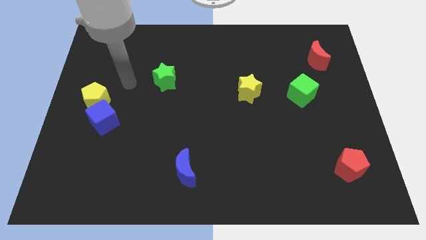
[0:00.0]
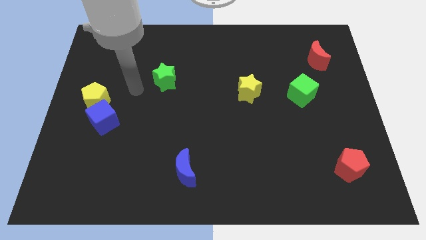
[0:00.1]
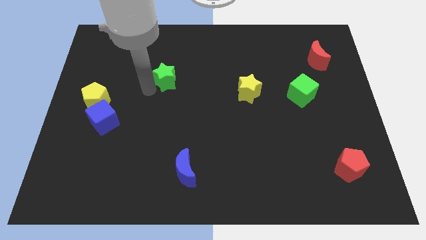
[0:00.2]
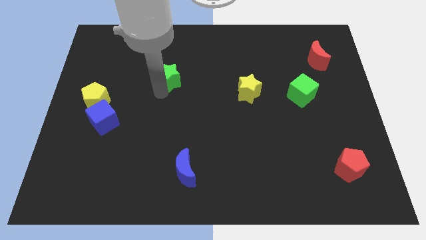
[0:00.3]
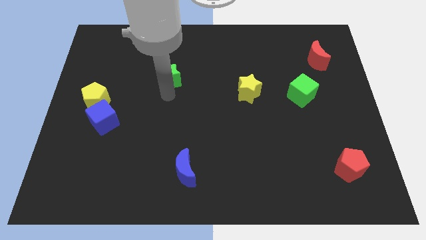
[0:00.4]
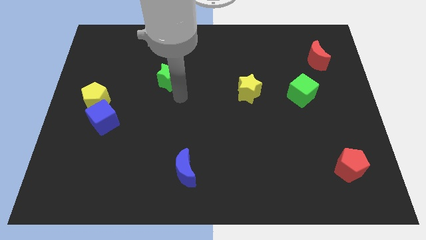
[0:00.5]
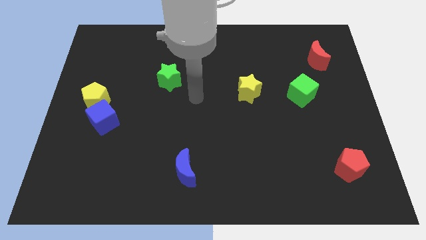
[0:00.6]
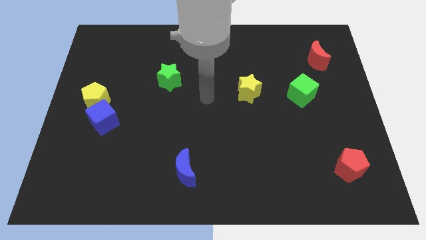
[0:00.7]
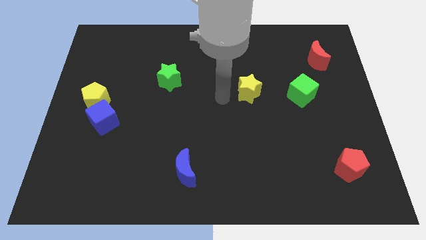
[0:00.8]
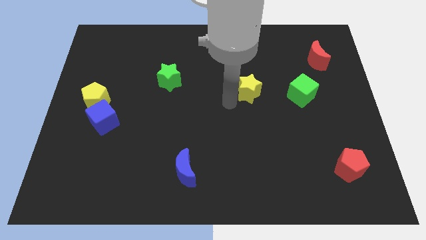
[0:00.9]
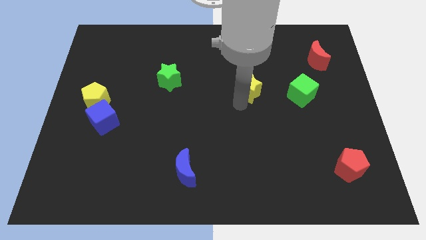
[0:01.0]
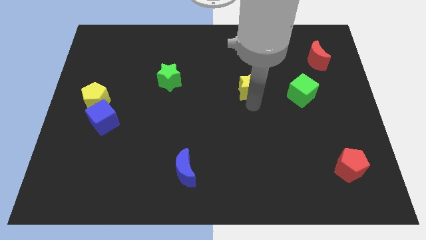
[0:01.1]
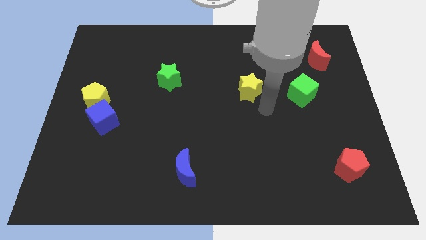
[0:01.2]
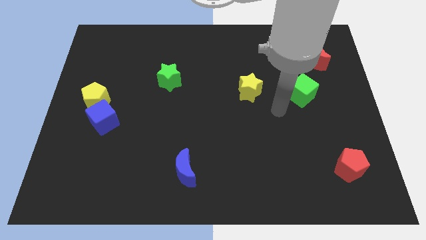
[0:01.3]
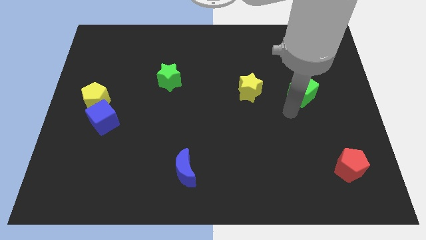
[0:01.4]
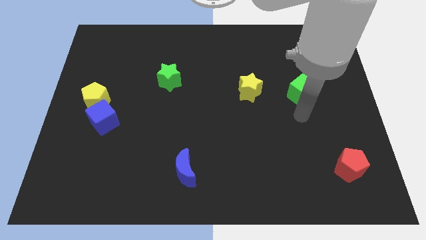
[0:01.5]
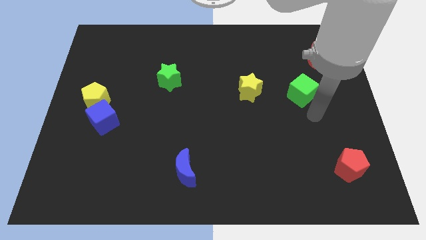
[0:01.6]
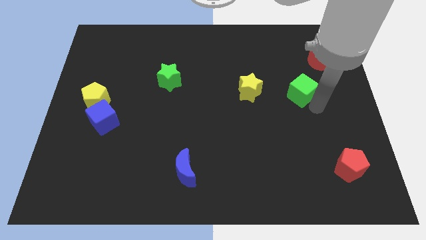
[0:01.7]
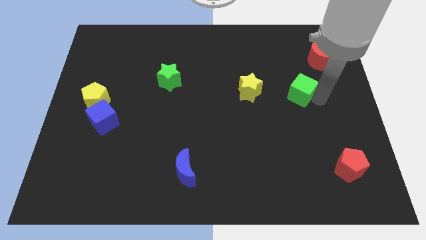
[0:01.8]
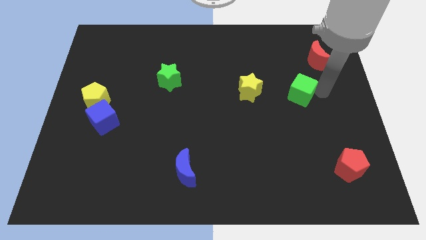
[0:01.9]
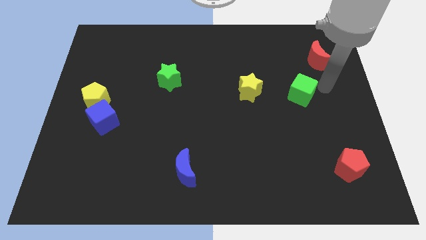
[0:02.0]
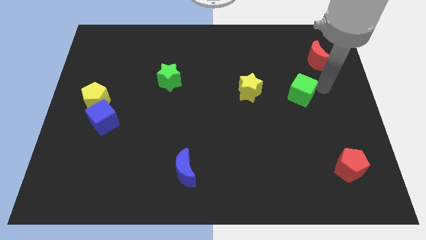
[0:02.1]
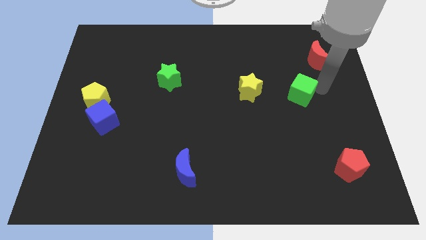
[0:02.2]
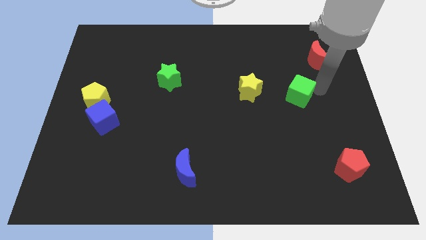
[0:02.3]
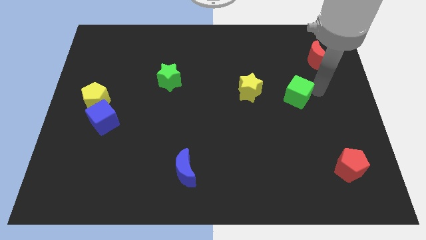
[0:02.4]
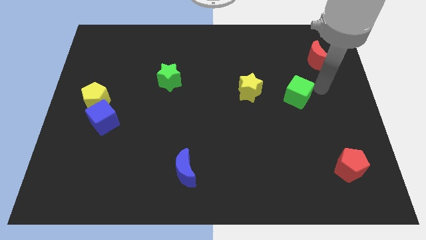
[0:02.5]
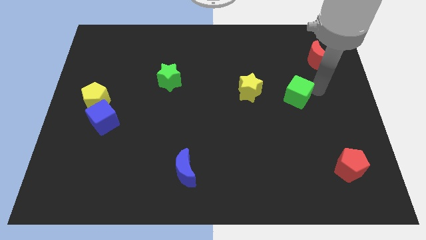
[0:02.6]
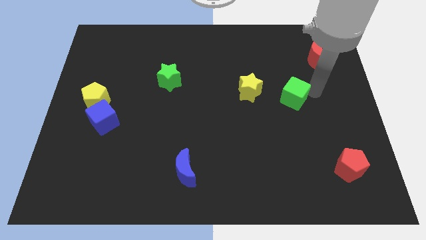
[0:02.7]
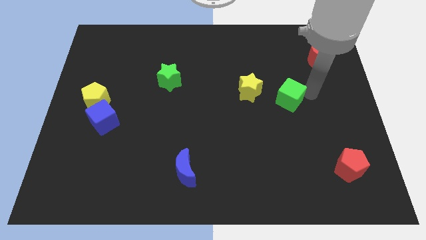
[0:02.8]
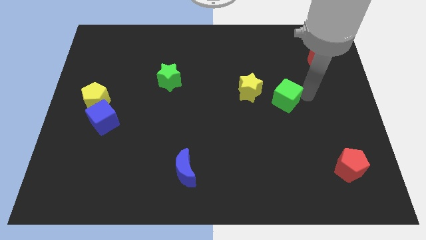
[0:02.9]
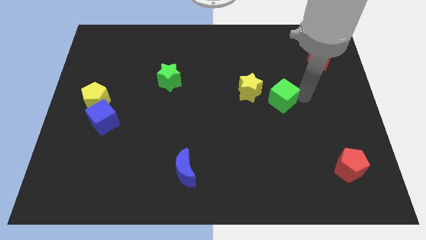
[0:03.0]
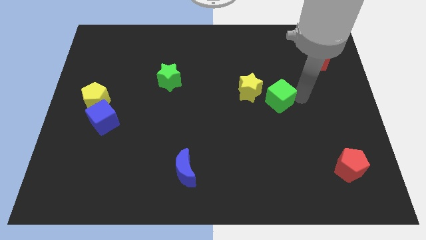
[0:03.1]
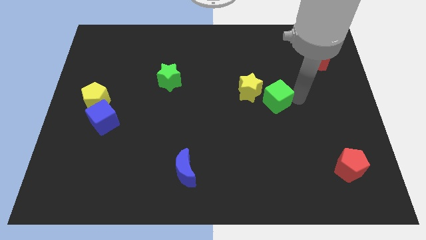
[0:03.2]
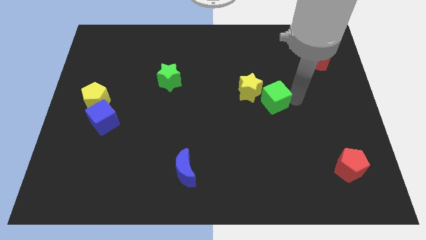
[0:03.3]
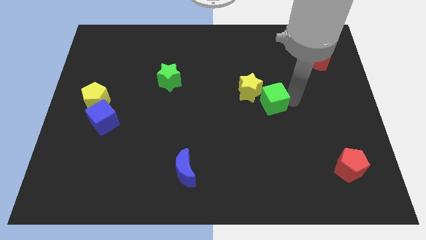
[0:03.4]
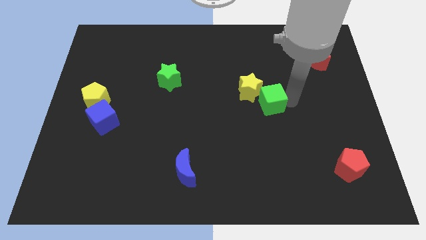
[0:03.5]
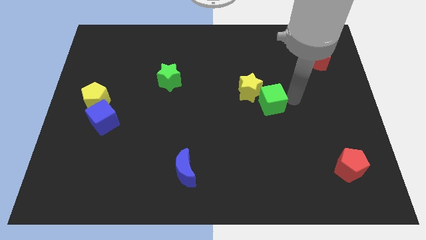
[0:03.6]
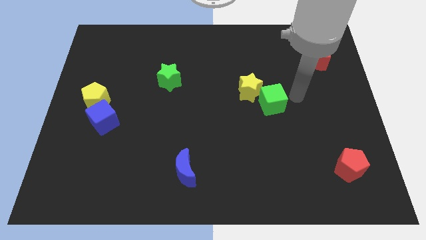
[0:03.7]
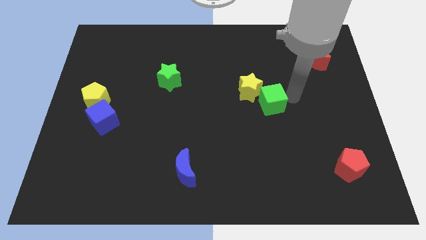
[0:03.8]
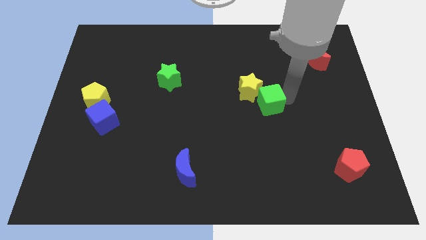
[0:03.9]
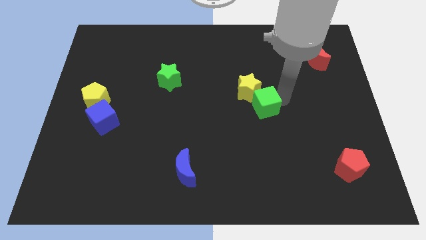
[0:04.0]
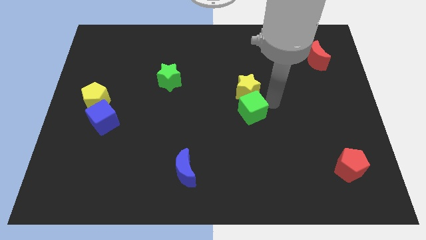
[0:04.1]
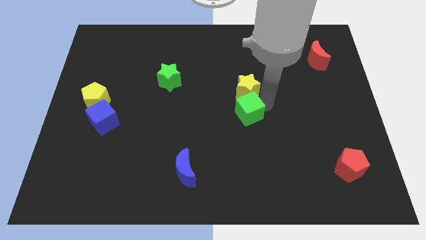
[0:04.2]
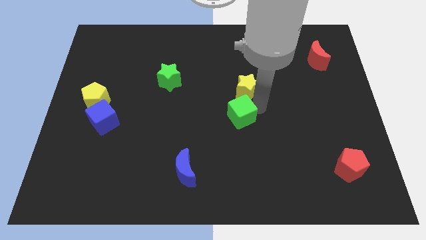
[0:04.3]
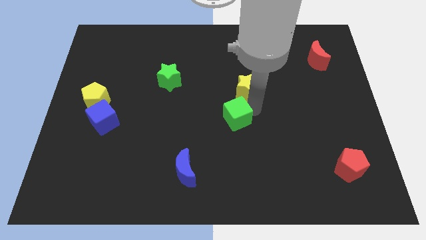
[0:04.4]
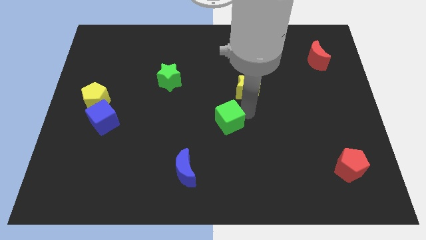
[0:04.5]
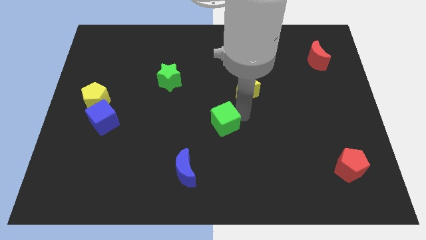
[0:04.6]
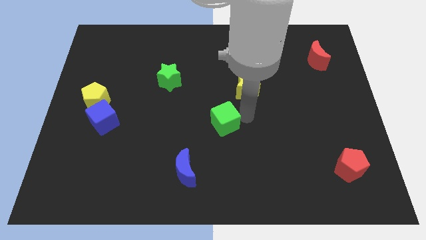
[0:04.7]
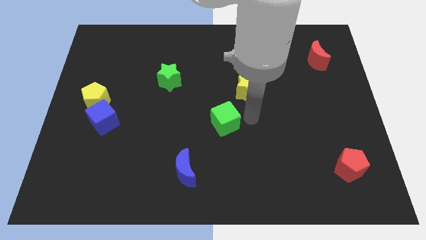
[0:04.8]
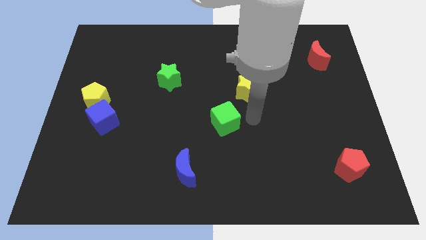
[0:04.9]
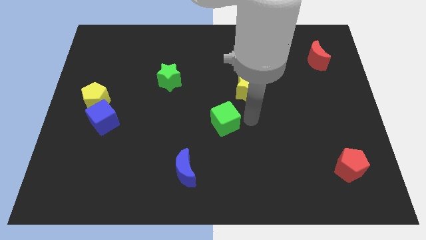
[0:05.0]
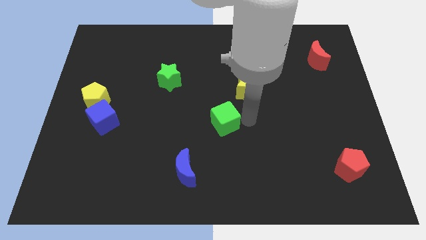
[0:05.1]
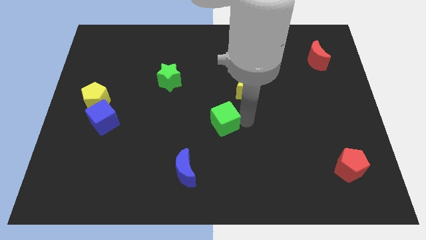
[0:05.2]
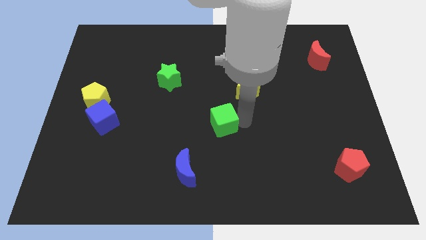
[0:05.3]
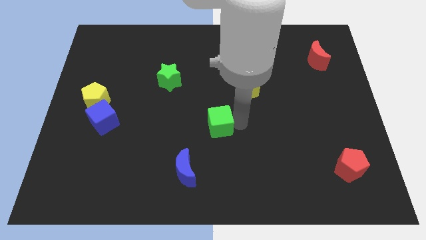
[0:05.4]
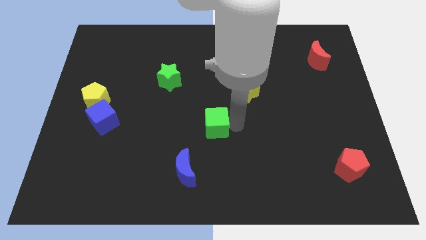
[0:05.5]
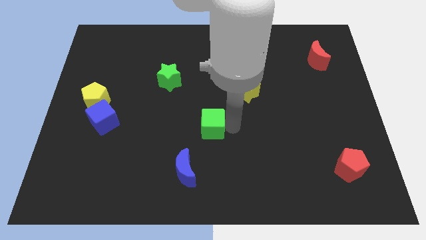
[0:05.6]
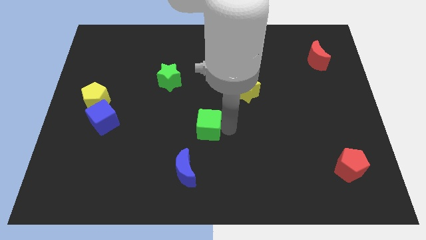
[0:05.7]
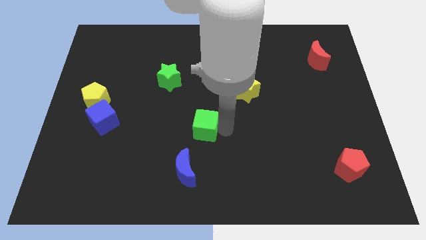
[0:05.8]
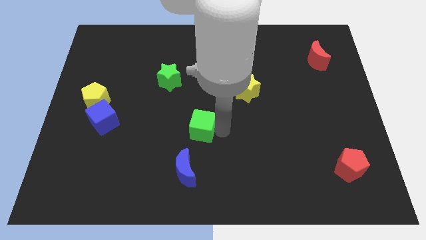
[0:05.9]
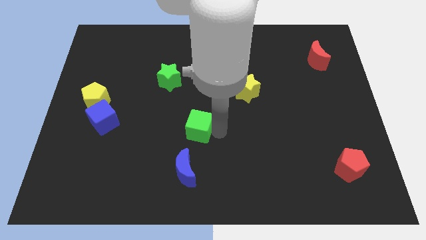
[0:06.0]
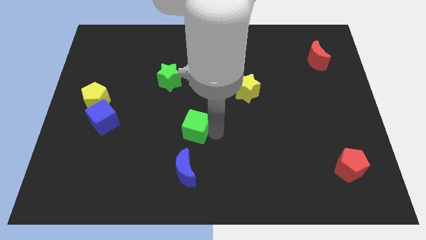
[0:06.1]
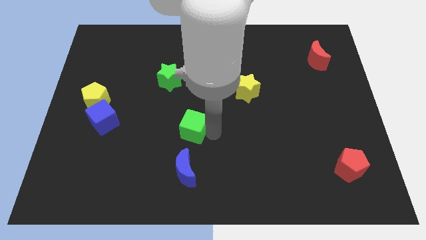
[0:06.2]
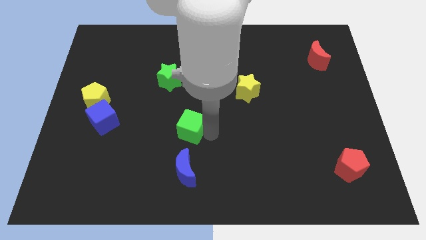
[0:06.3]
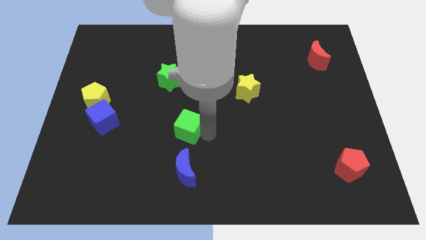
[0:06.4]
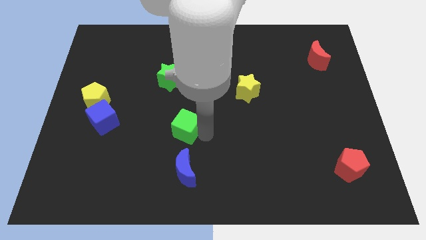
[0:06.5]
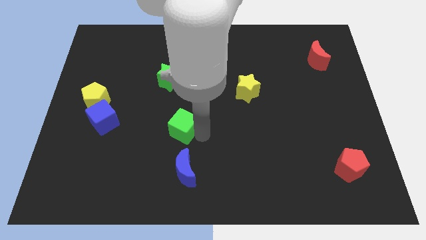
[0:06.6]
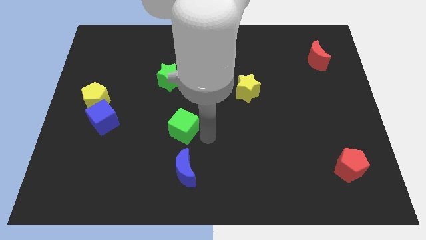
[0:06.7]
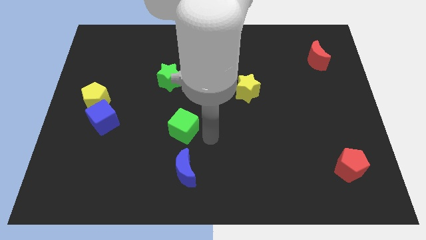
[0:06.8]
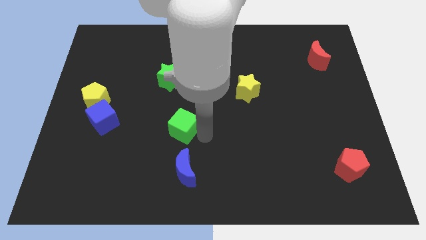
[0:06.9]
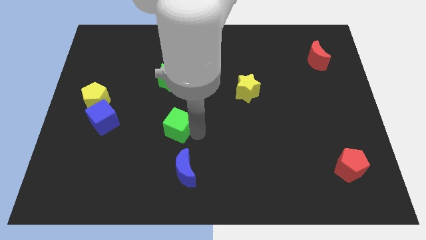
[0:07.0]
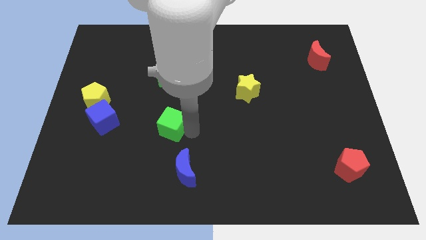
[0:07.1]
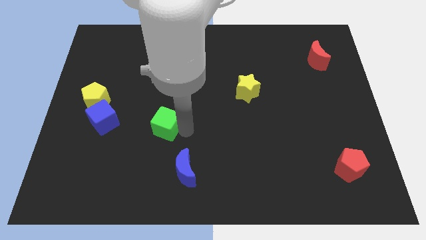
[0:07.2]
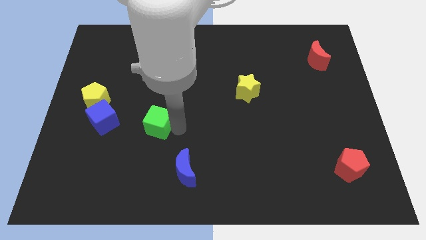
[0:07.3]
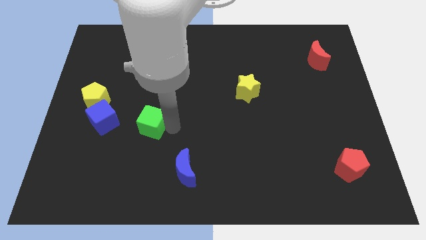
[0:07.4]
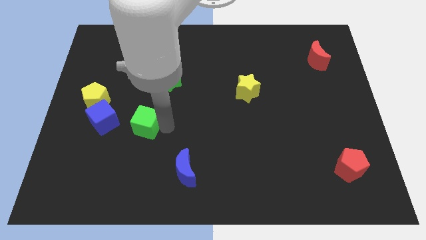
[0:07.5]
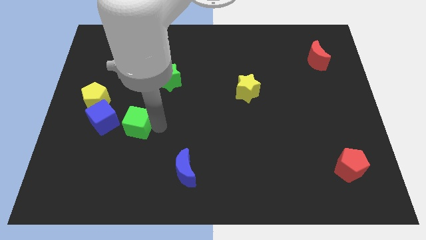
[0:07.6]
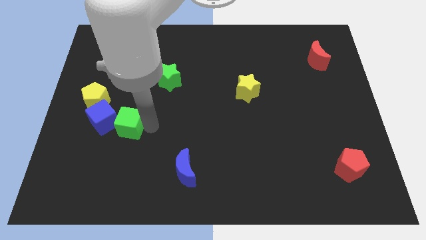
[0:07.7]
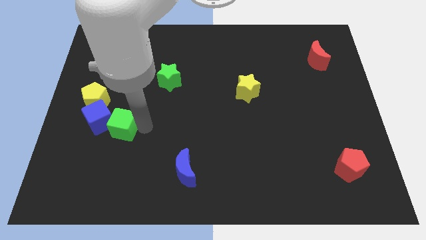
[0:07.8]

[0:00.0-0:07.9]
push the green cube close to the blue cube
